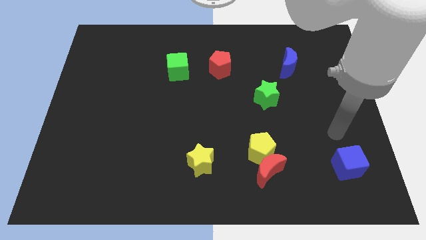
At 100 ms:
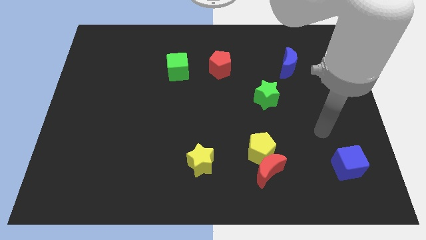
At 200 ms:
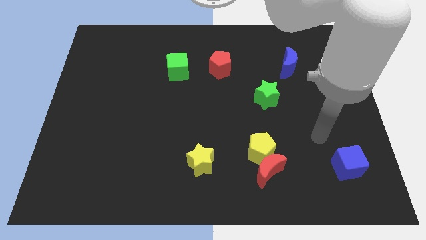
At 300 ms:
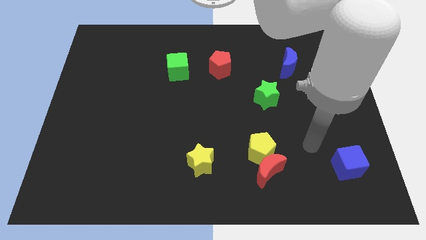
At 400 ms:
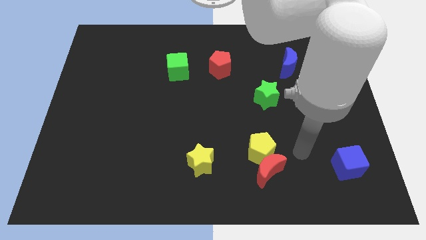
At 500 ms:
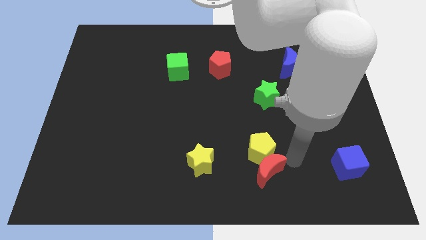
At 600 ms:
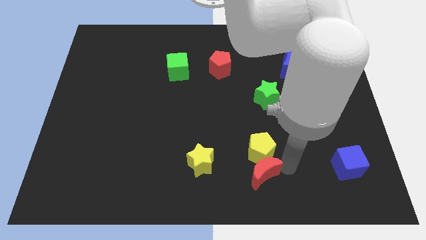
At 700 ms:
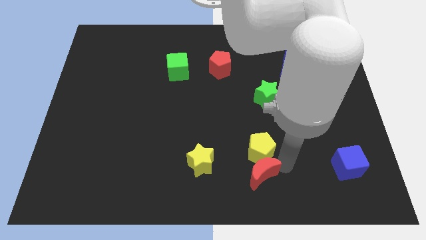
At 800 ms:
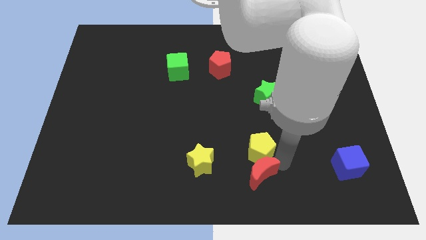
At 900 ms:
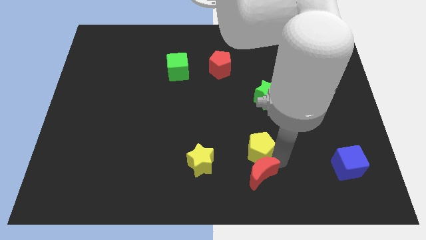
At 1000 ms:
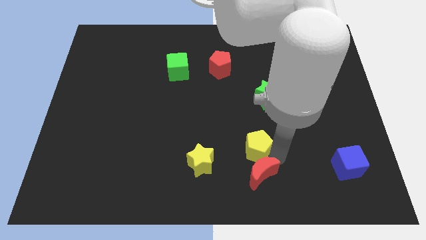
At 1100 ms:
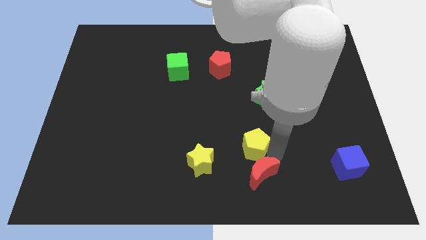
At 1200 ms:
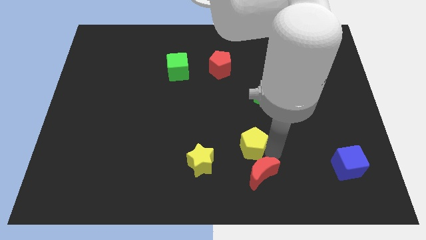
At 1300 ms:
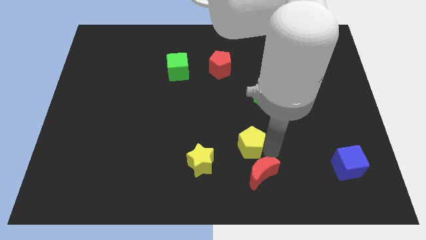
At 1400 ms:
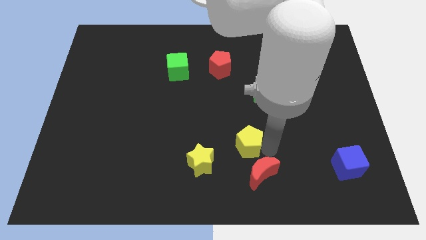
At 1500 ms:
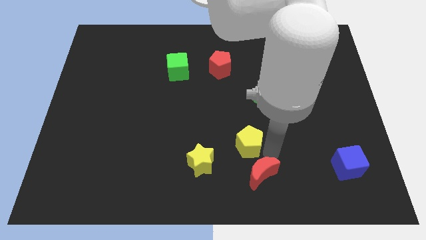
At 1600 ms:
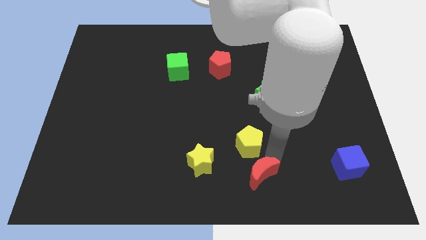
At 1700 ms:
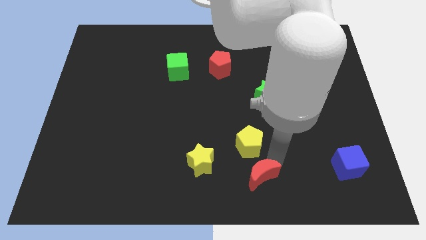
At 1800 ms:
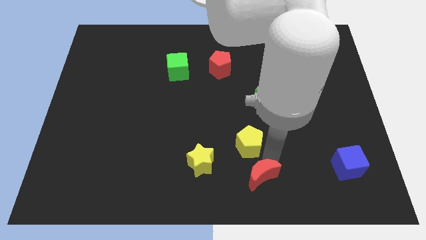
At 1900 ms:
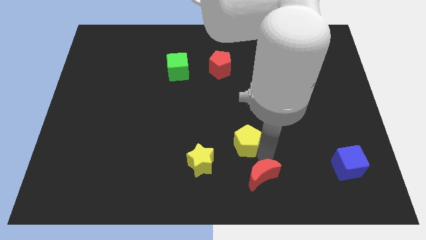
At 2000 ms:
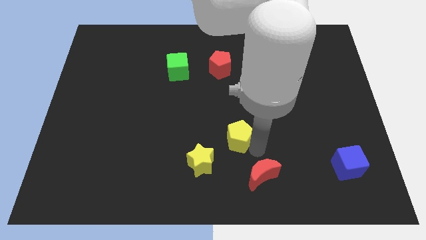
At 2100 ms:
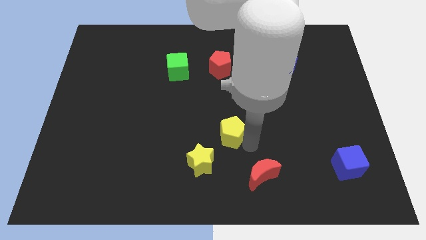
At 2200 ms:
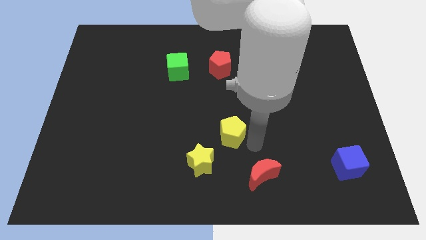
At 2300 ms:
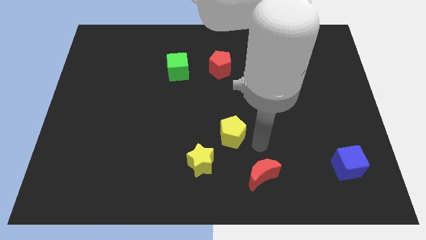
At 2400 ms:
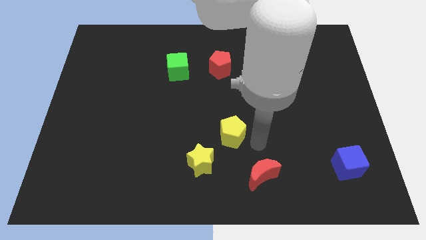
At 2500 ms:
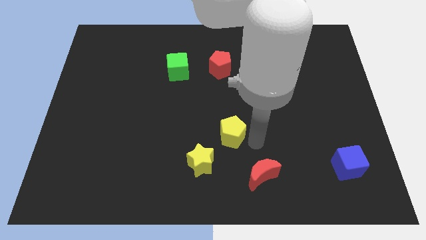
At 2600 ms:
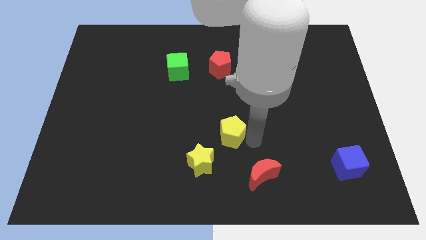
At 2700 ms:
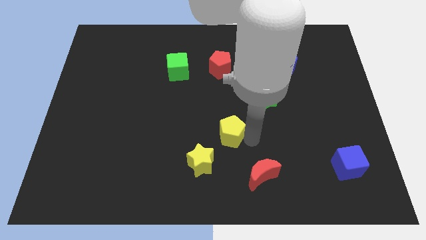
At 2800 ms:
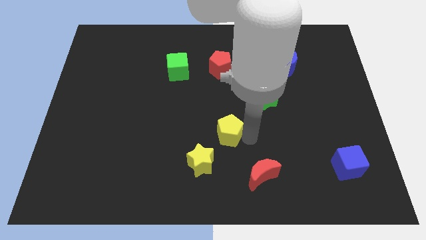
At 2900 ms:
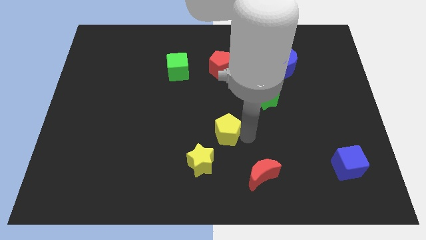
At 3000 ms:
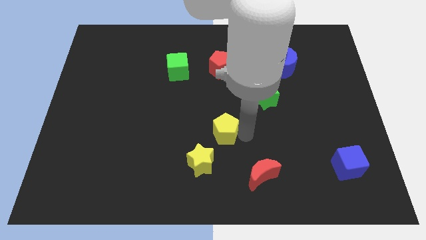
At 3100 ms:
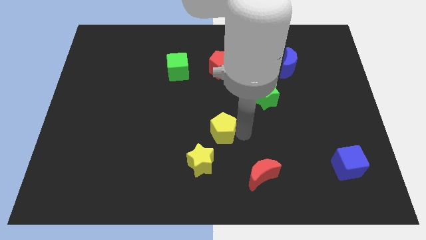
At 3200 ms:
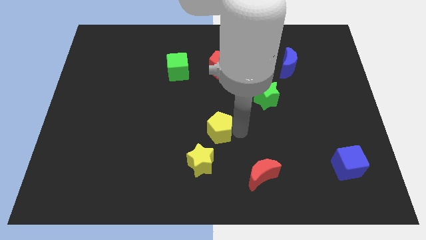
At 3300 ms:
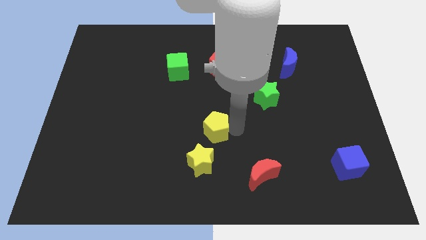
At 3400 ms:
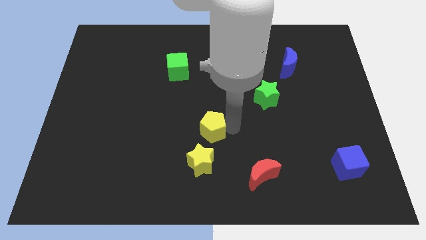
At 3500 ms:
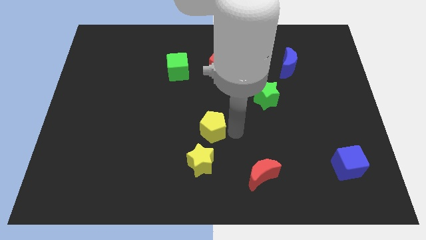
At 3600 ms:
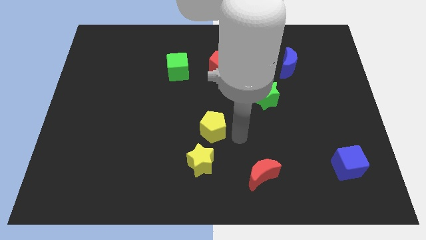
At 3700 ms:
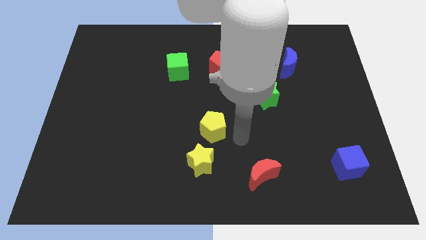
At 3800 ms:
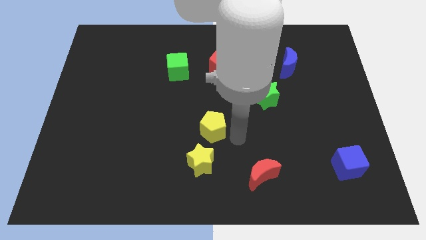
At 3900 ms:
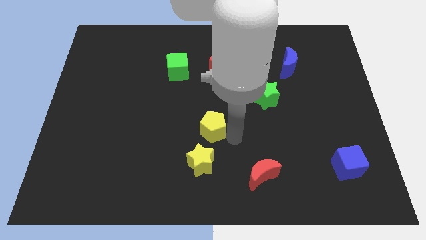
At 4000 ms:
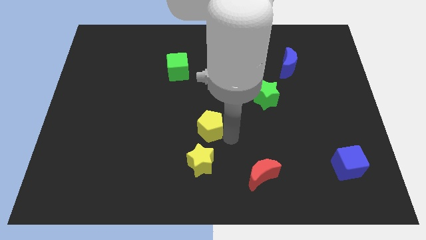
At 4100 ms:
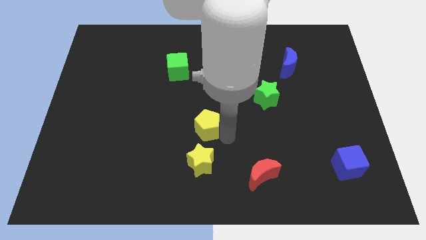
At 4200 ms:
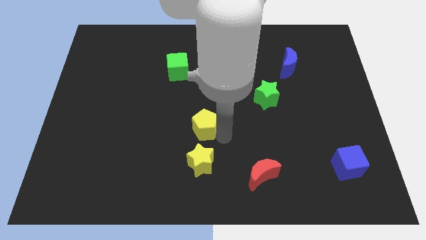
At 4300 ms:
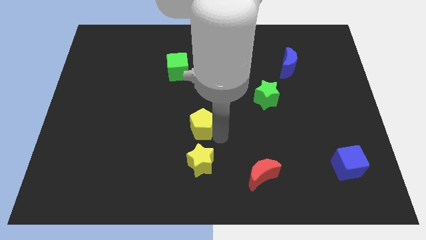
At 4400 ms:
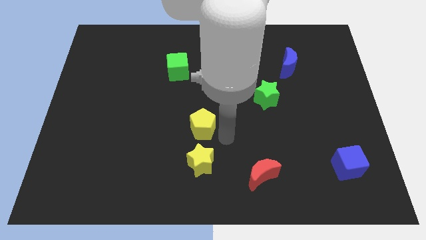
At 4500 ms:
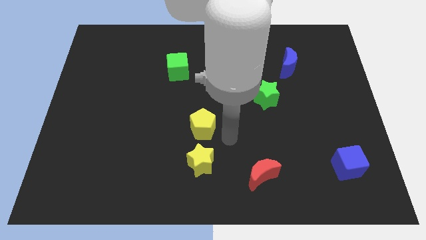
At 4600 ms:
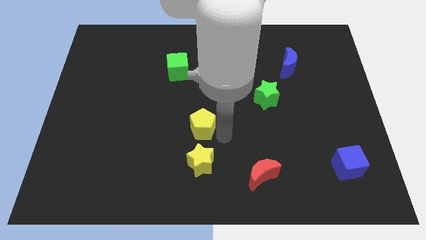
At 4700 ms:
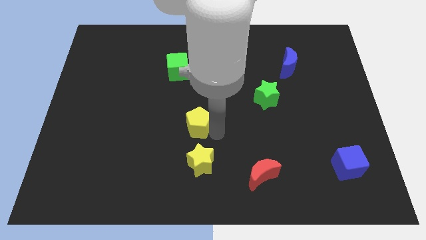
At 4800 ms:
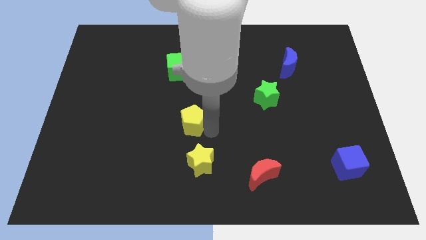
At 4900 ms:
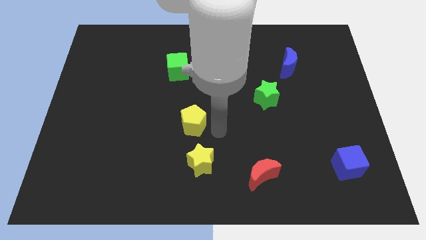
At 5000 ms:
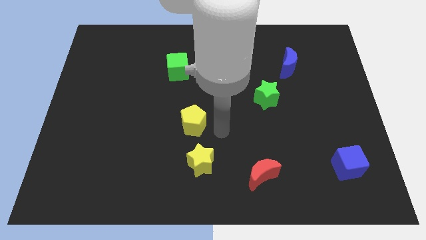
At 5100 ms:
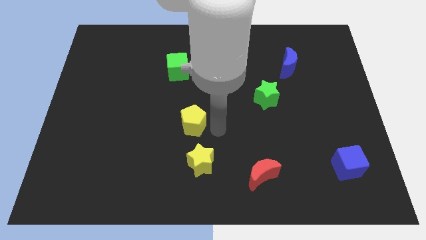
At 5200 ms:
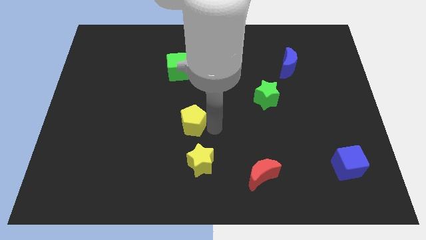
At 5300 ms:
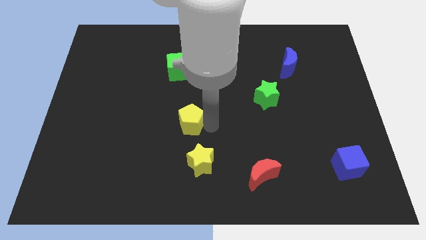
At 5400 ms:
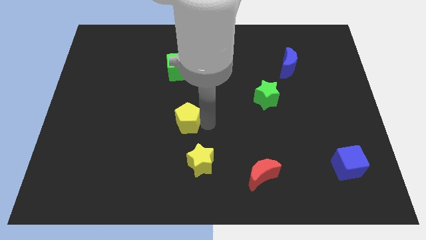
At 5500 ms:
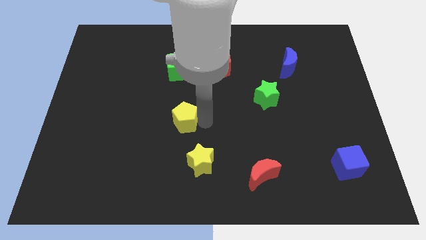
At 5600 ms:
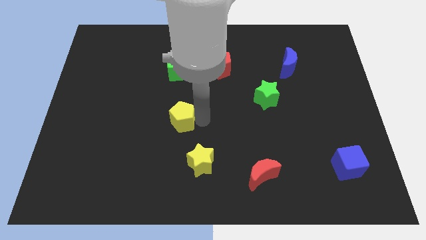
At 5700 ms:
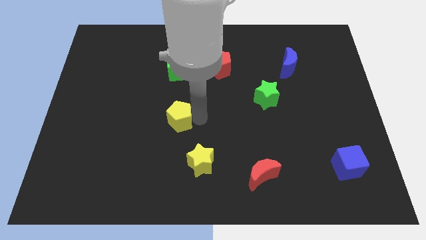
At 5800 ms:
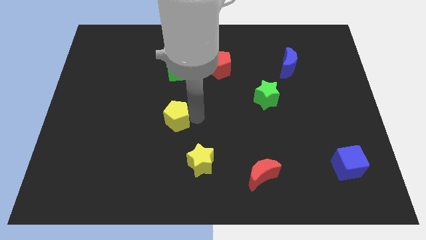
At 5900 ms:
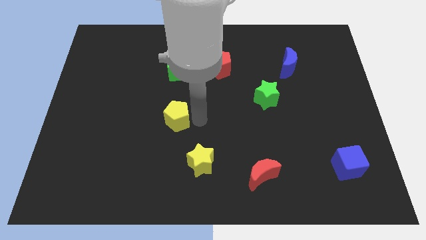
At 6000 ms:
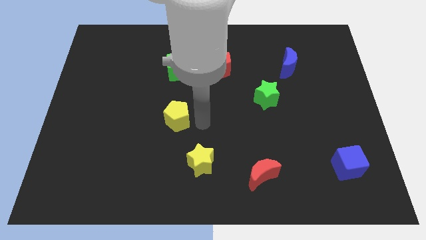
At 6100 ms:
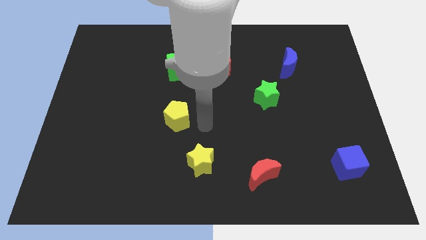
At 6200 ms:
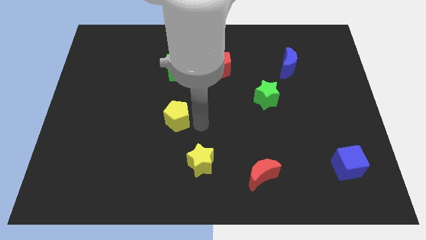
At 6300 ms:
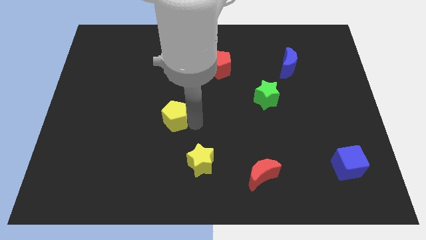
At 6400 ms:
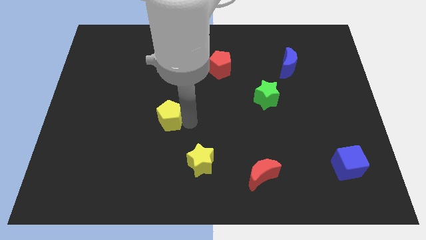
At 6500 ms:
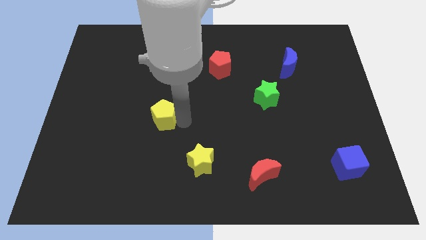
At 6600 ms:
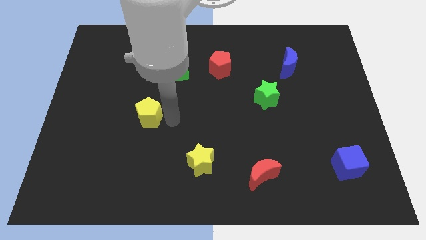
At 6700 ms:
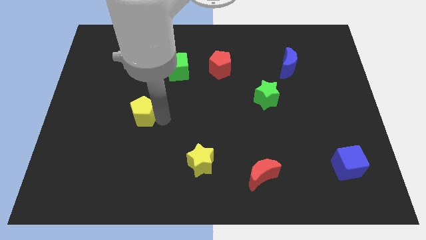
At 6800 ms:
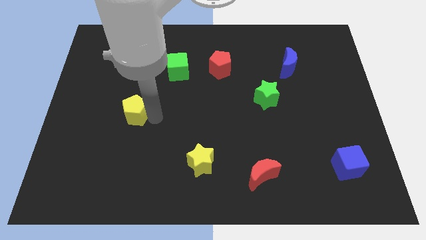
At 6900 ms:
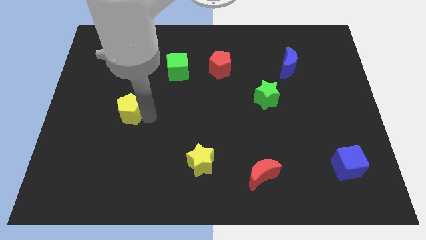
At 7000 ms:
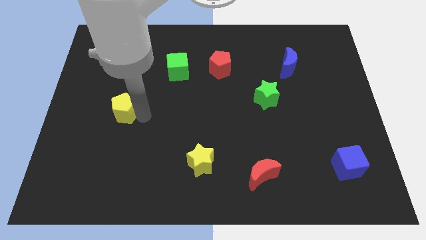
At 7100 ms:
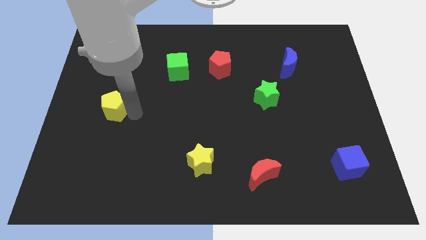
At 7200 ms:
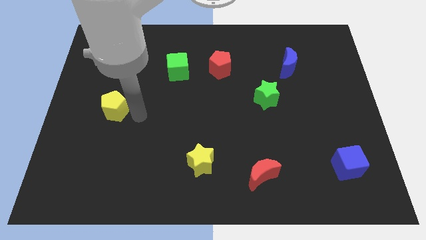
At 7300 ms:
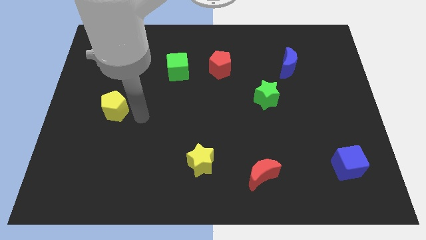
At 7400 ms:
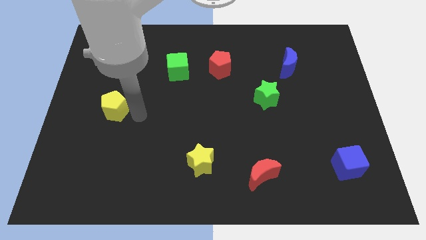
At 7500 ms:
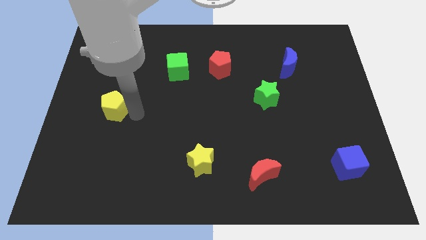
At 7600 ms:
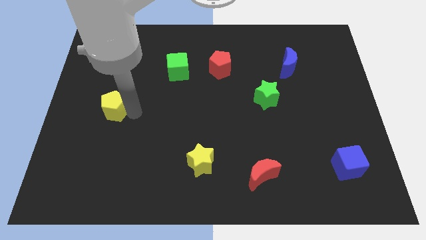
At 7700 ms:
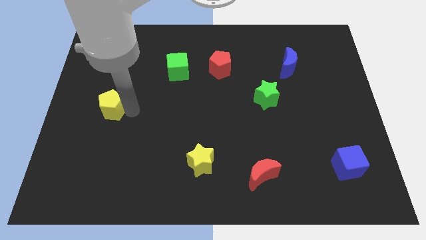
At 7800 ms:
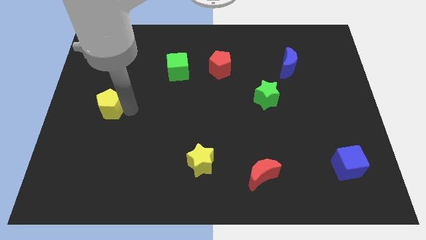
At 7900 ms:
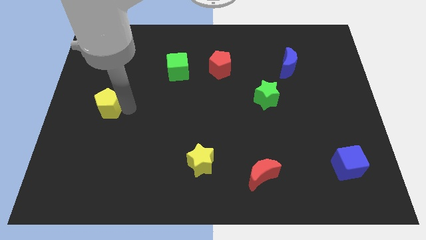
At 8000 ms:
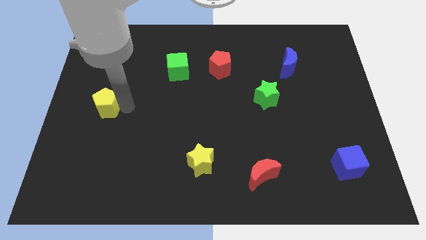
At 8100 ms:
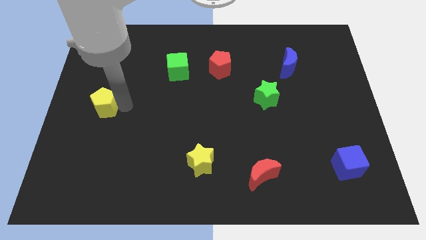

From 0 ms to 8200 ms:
slide the yellow pentagon to the center left
